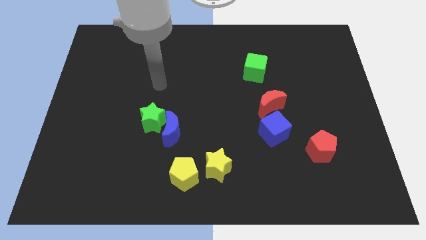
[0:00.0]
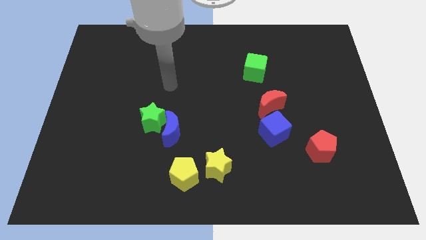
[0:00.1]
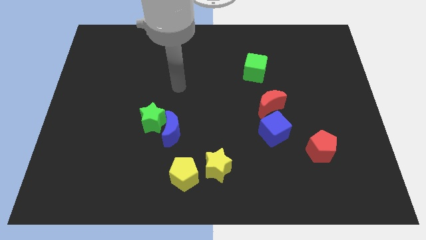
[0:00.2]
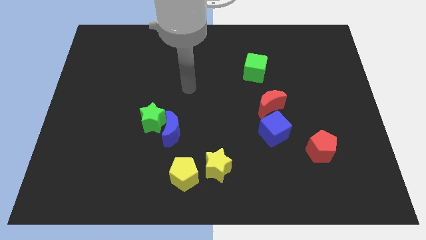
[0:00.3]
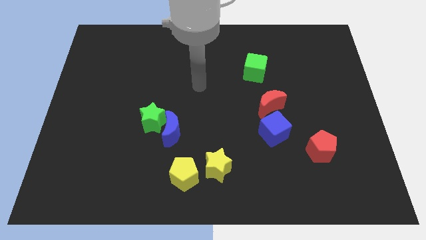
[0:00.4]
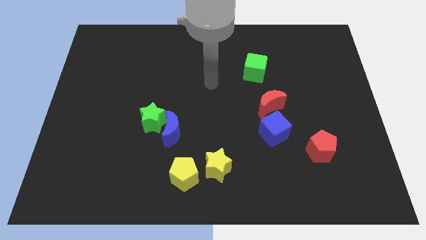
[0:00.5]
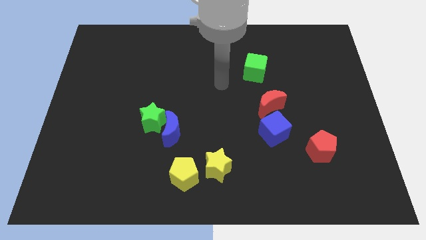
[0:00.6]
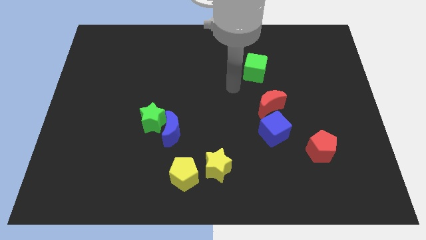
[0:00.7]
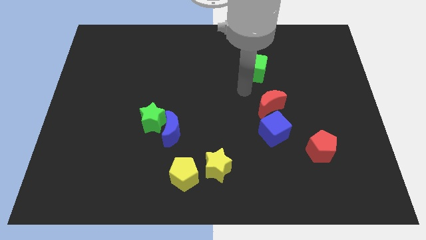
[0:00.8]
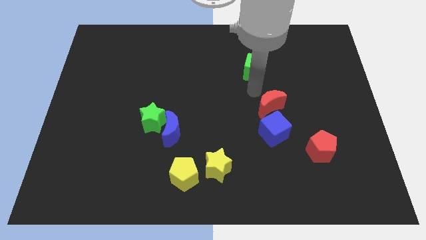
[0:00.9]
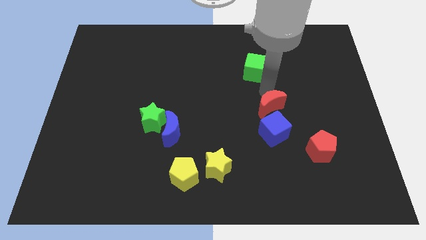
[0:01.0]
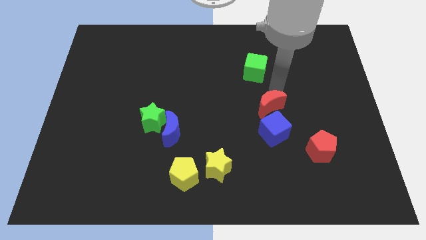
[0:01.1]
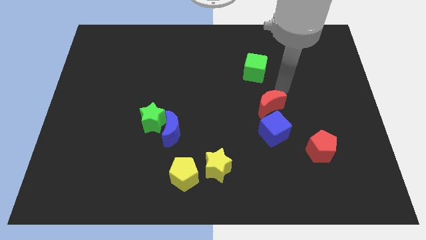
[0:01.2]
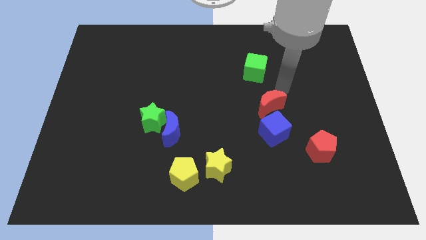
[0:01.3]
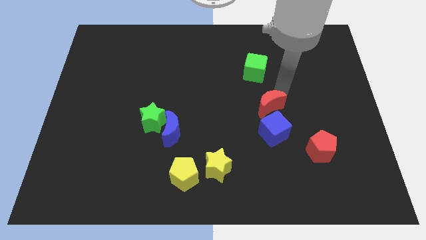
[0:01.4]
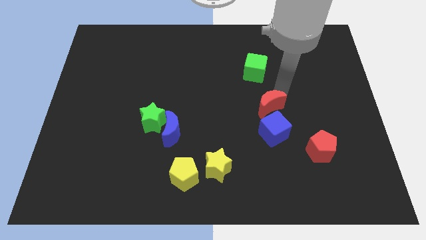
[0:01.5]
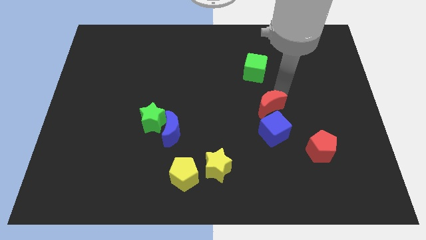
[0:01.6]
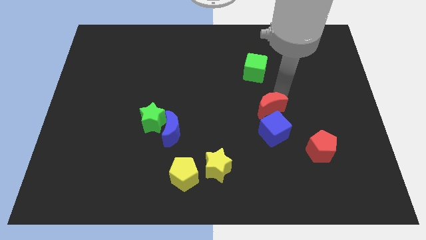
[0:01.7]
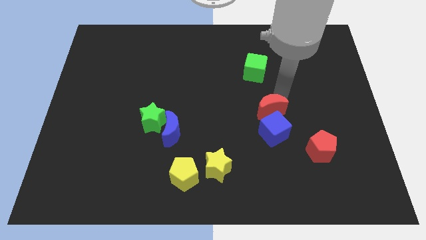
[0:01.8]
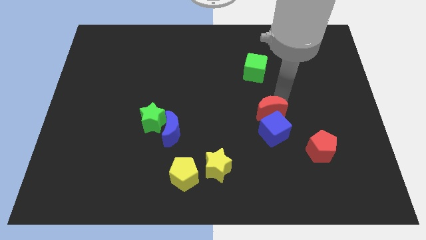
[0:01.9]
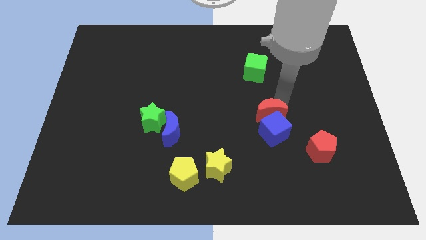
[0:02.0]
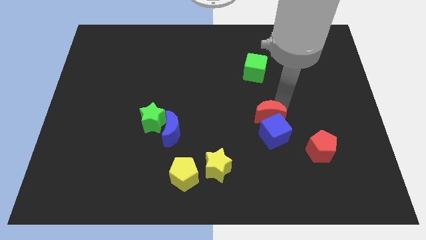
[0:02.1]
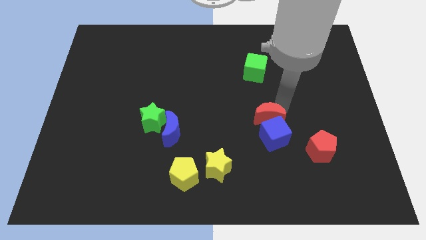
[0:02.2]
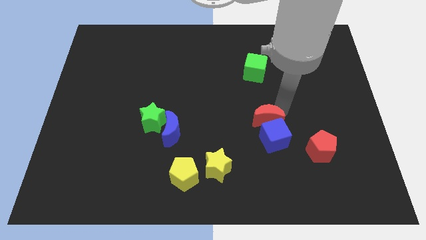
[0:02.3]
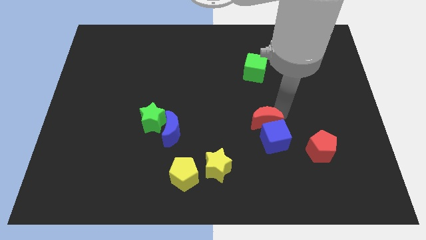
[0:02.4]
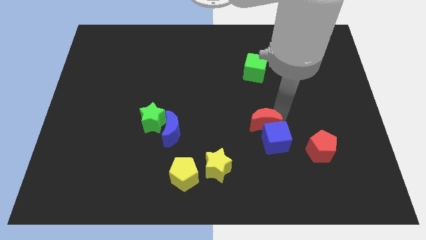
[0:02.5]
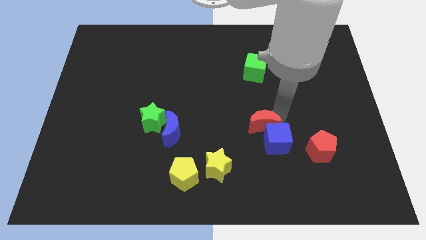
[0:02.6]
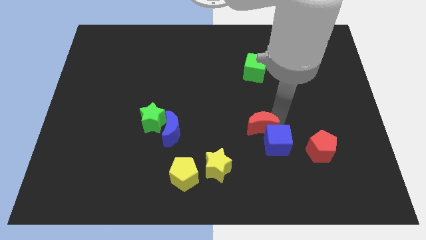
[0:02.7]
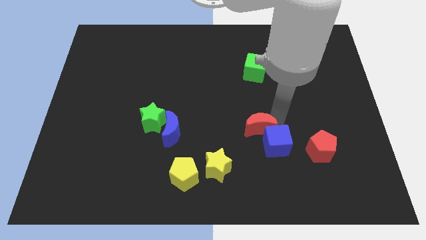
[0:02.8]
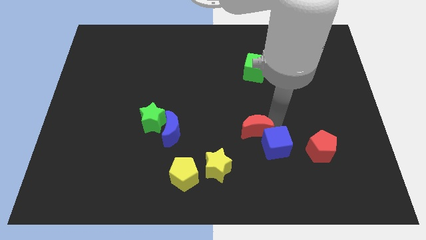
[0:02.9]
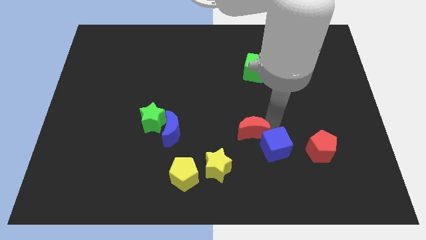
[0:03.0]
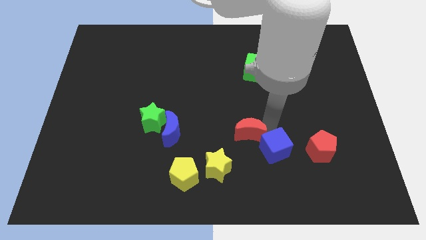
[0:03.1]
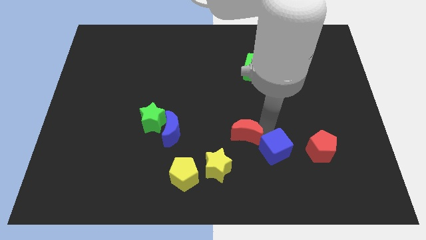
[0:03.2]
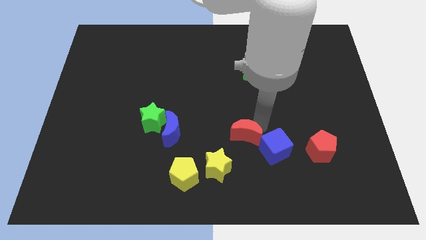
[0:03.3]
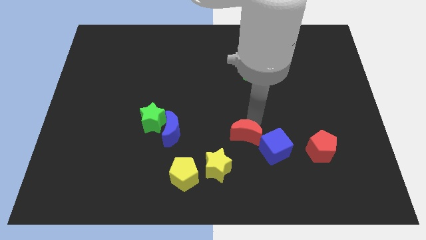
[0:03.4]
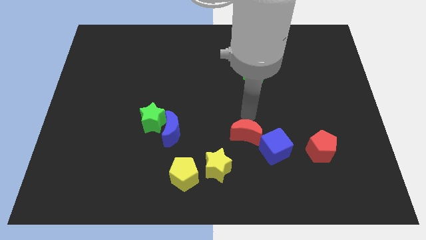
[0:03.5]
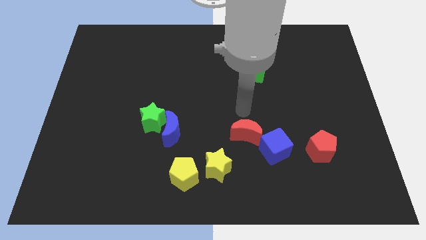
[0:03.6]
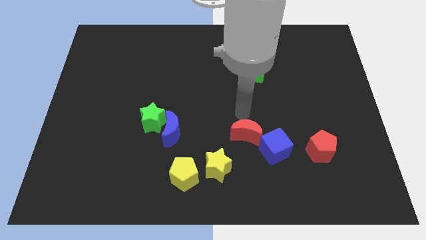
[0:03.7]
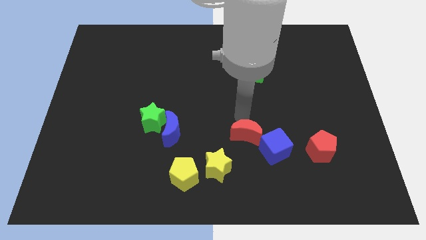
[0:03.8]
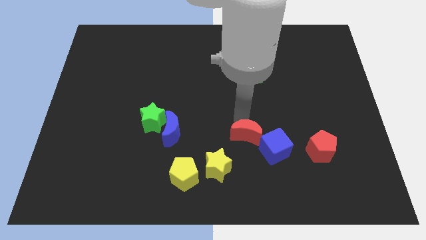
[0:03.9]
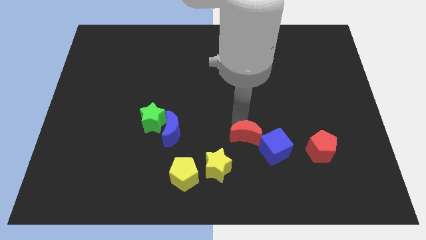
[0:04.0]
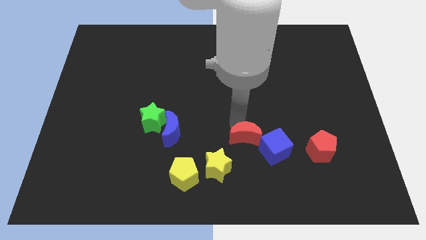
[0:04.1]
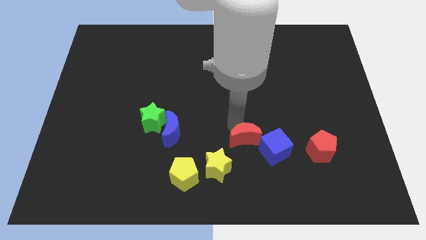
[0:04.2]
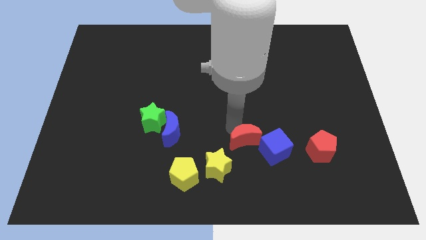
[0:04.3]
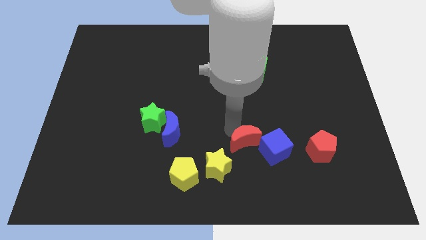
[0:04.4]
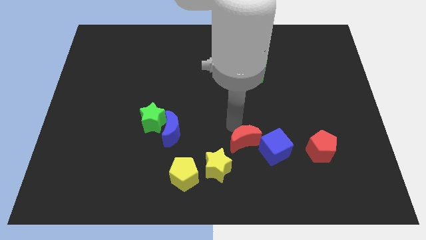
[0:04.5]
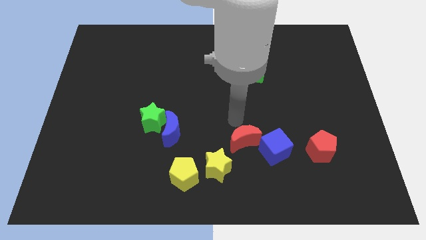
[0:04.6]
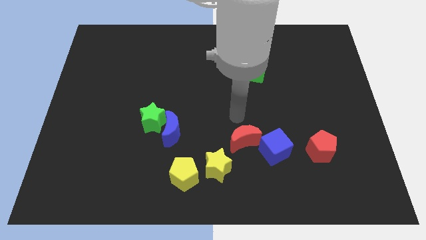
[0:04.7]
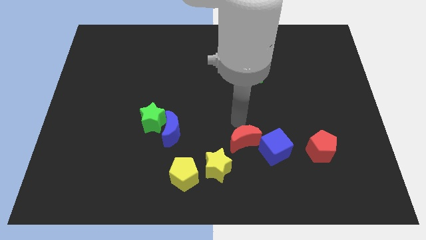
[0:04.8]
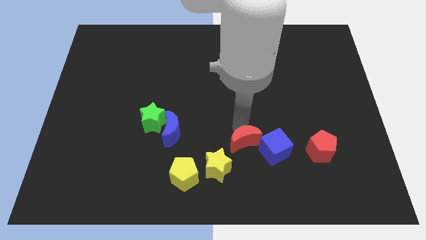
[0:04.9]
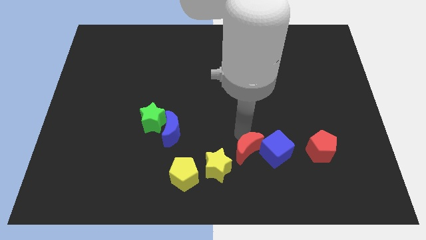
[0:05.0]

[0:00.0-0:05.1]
put the red moon diagonally down and to the left of the blue cube

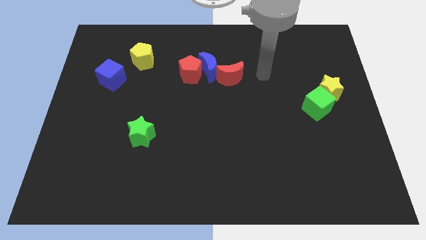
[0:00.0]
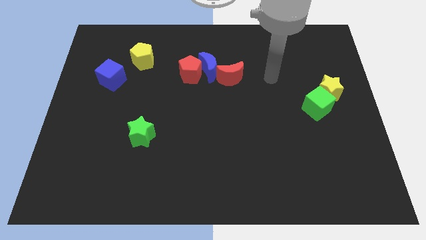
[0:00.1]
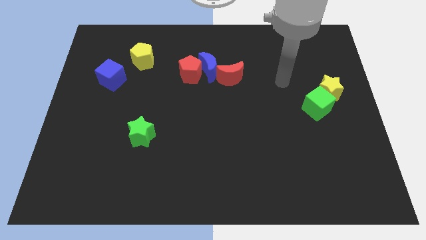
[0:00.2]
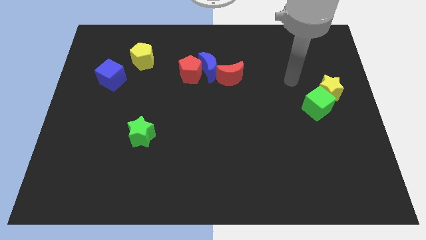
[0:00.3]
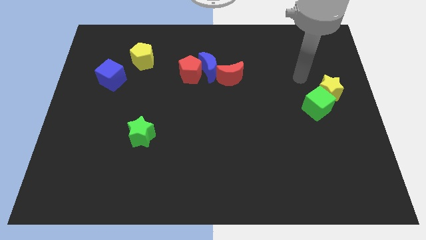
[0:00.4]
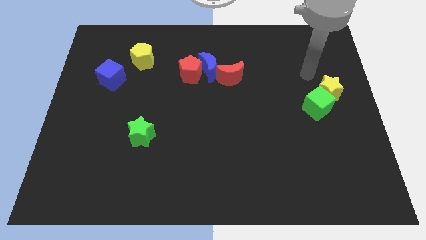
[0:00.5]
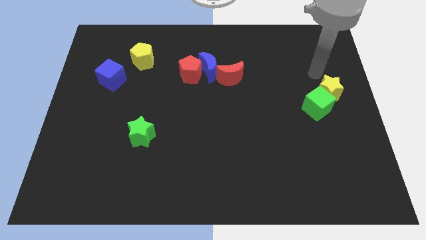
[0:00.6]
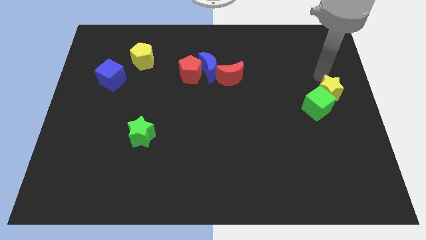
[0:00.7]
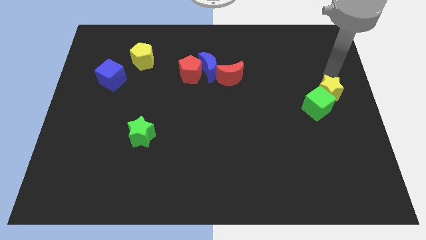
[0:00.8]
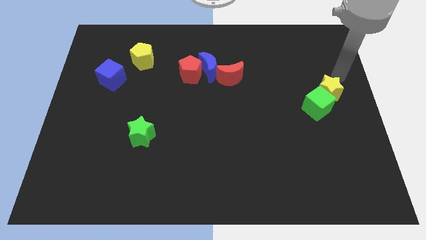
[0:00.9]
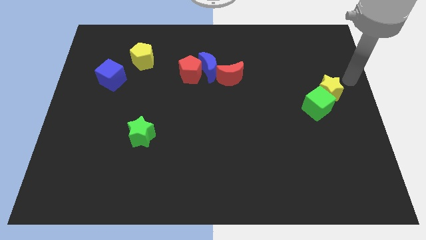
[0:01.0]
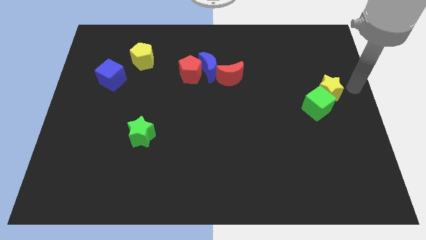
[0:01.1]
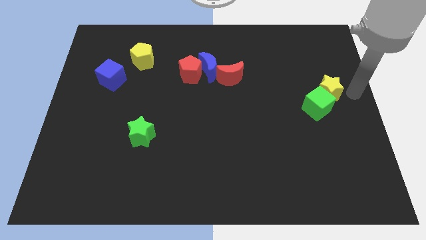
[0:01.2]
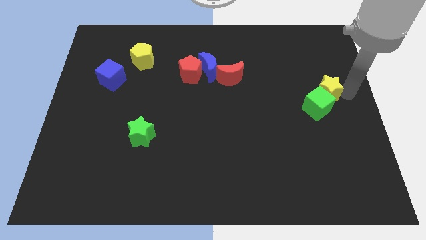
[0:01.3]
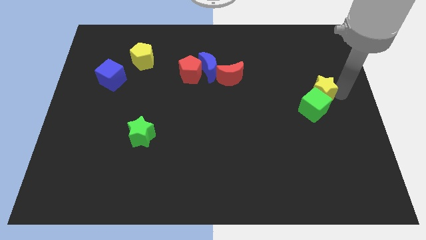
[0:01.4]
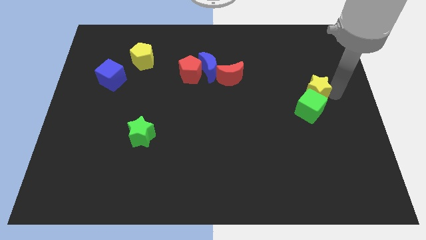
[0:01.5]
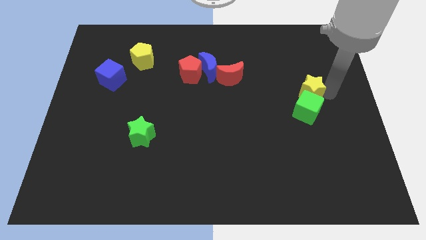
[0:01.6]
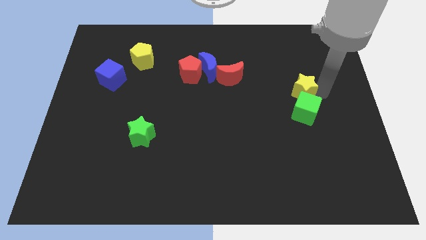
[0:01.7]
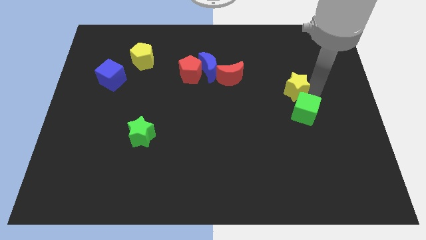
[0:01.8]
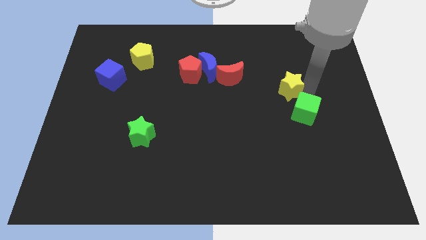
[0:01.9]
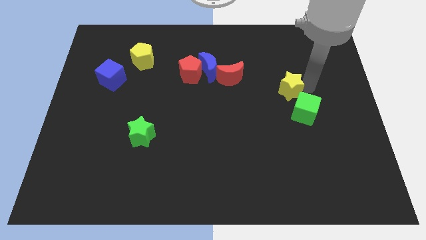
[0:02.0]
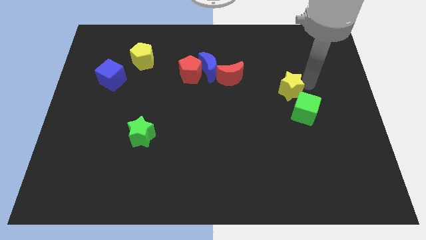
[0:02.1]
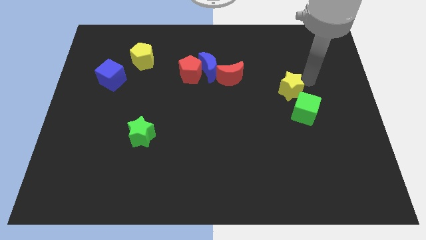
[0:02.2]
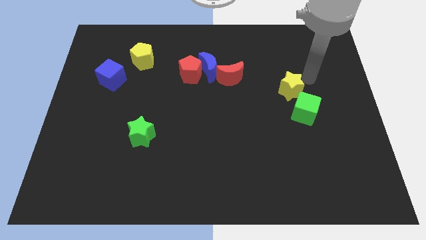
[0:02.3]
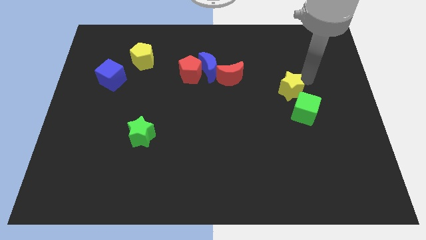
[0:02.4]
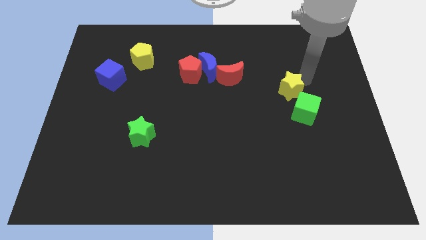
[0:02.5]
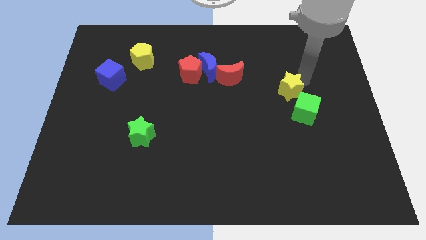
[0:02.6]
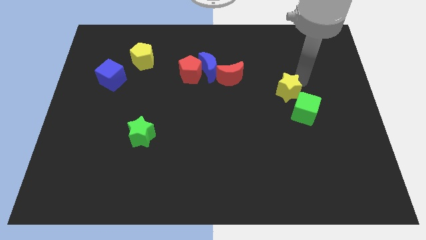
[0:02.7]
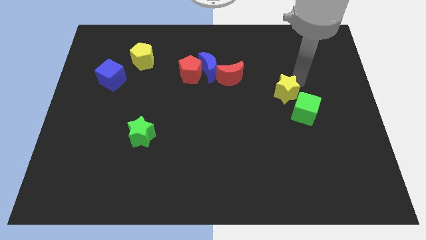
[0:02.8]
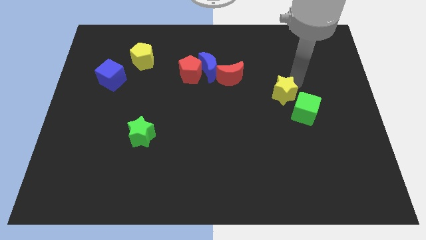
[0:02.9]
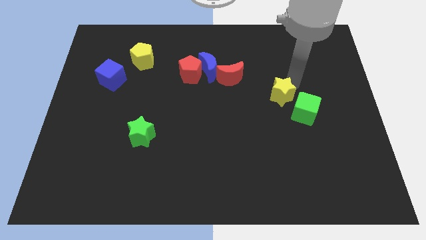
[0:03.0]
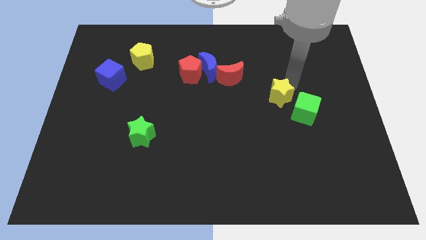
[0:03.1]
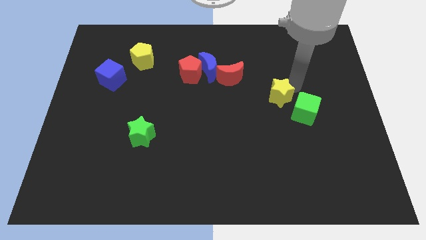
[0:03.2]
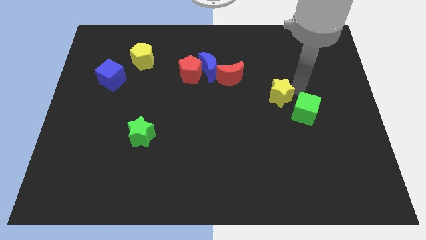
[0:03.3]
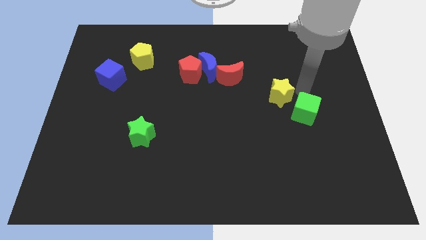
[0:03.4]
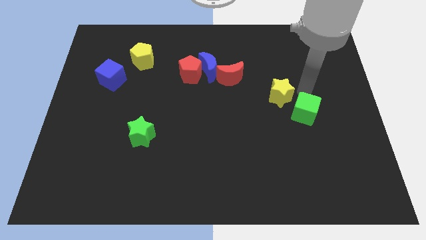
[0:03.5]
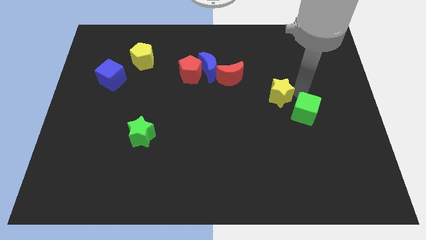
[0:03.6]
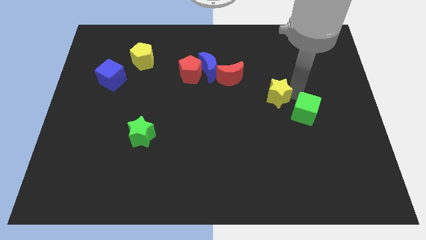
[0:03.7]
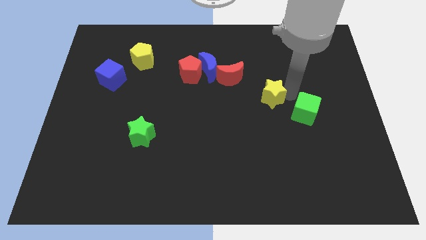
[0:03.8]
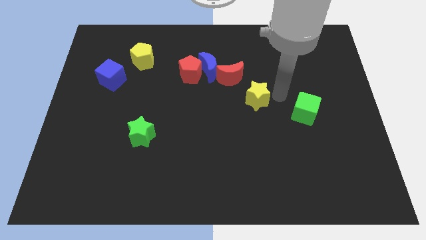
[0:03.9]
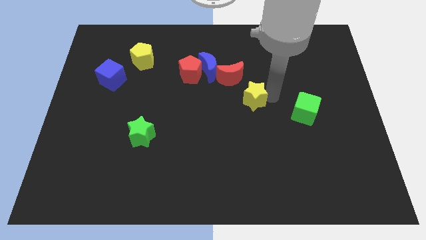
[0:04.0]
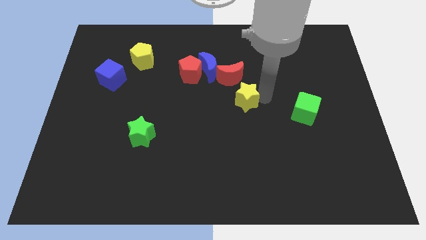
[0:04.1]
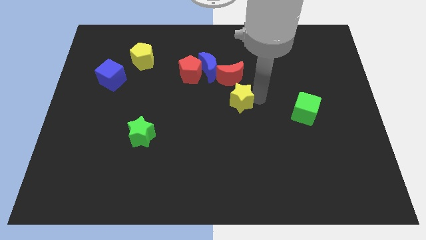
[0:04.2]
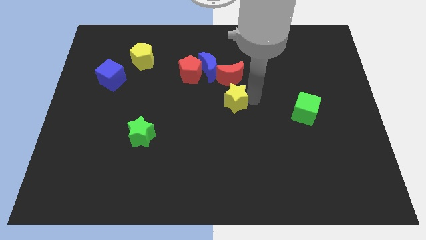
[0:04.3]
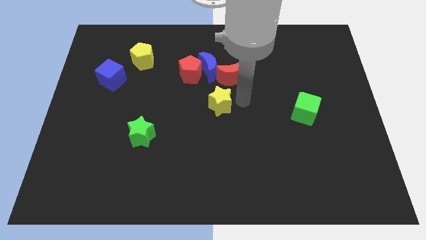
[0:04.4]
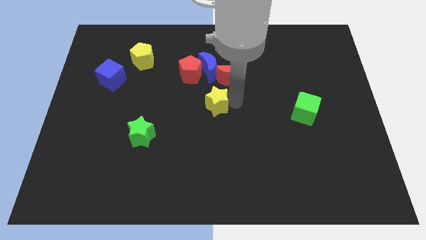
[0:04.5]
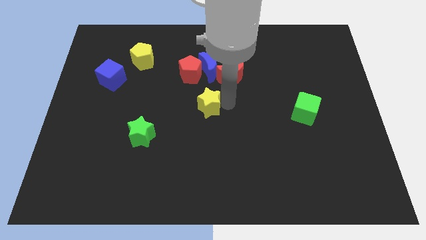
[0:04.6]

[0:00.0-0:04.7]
slide the yellow star to the bottom of the red pentagon
